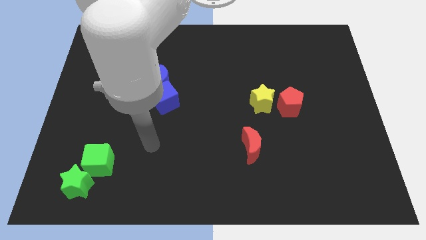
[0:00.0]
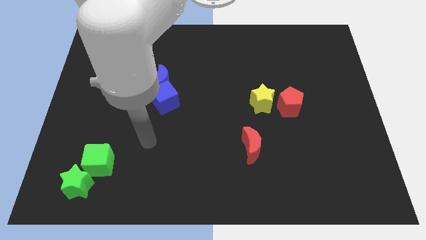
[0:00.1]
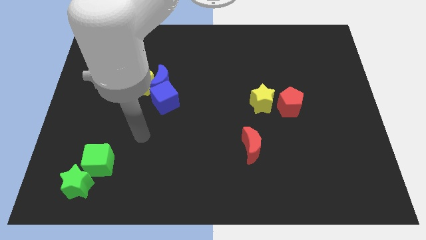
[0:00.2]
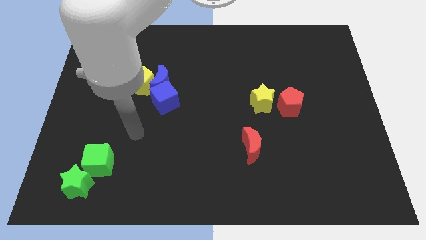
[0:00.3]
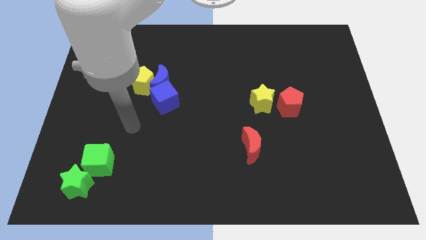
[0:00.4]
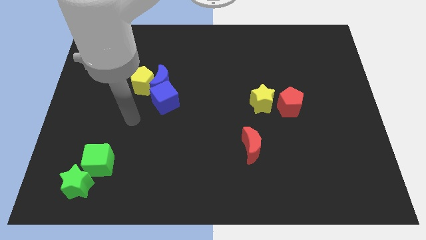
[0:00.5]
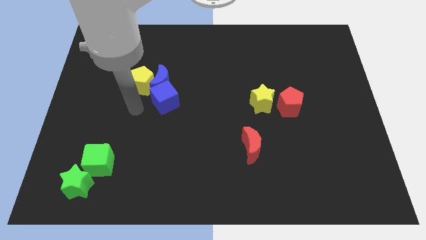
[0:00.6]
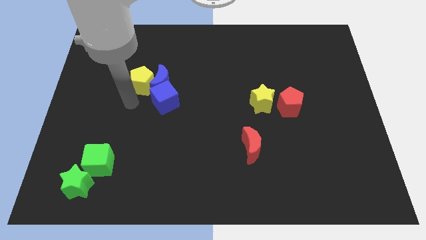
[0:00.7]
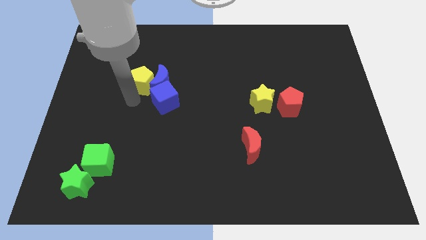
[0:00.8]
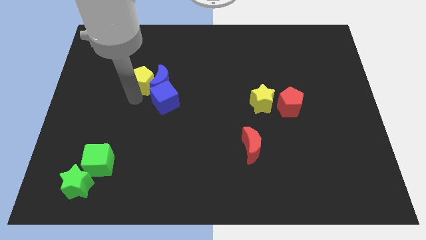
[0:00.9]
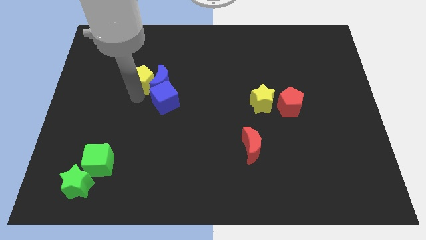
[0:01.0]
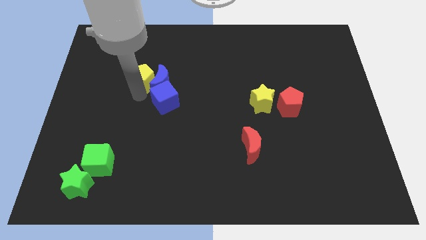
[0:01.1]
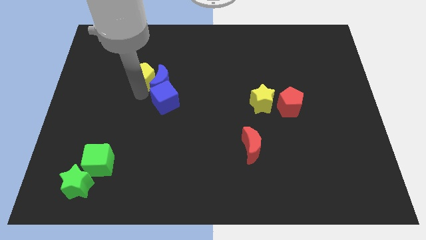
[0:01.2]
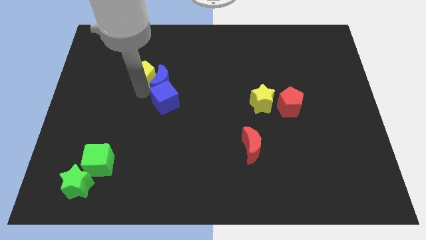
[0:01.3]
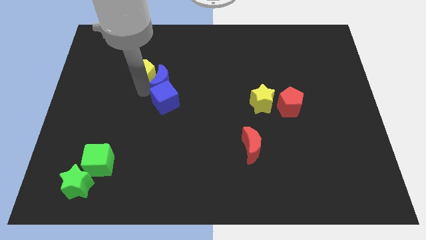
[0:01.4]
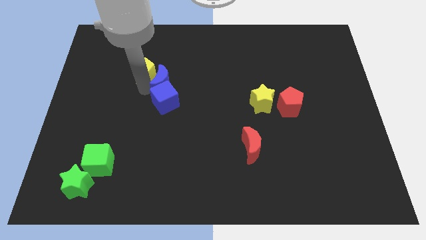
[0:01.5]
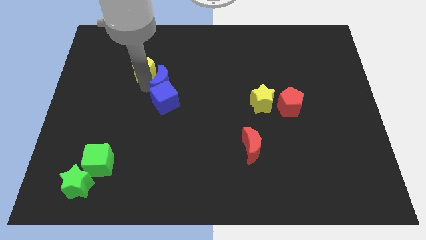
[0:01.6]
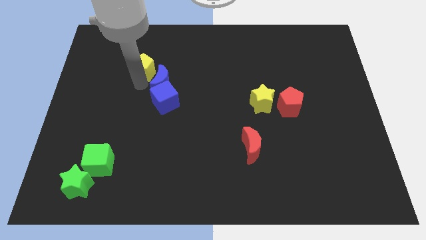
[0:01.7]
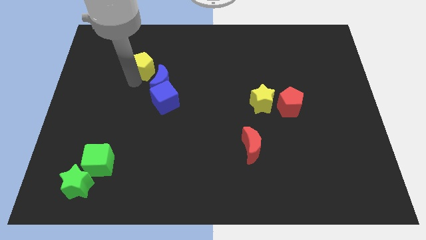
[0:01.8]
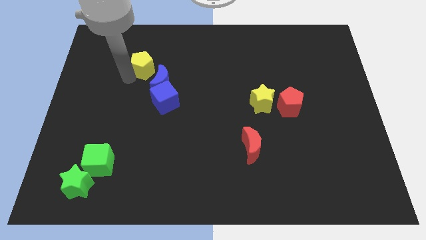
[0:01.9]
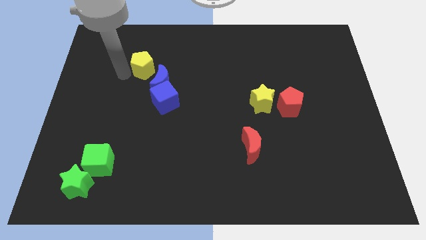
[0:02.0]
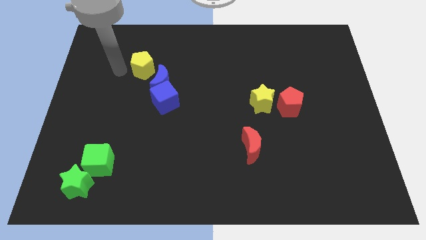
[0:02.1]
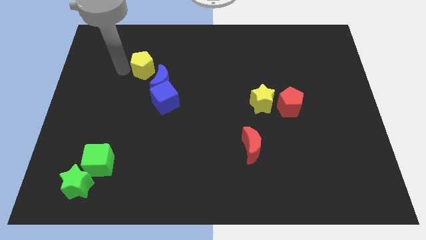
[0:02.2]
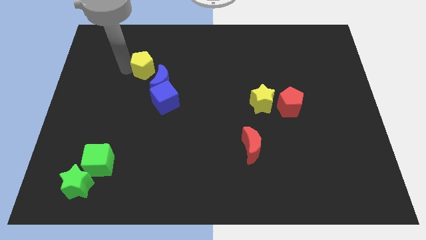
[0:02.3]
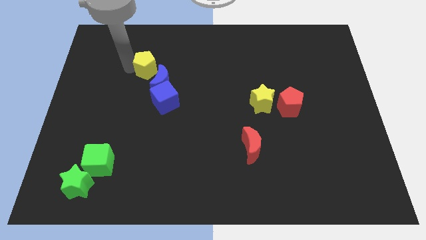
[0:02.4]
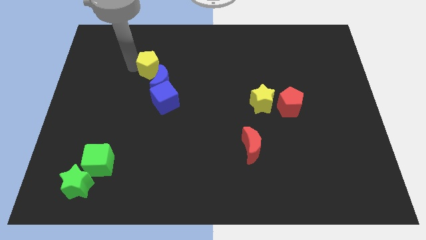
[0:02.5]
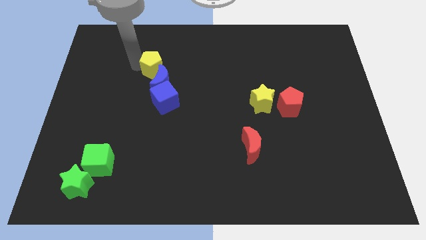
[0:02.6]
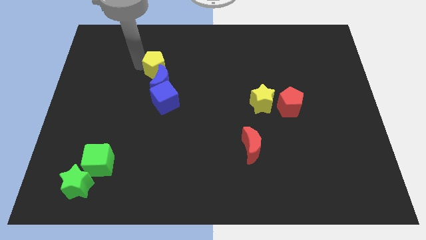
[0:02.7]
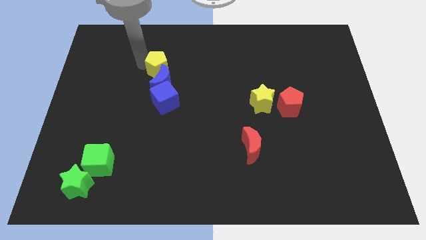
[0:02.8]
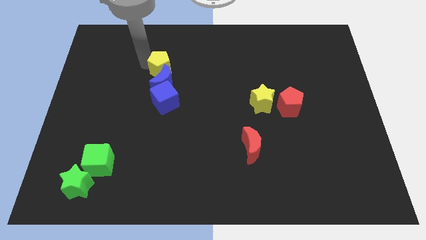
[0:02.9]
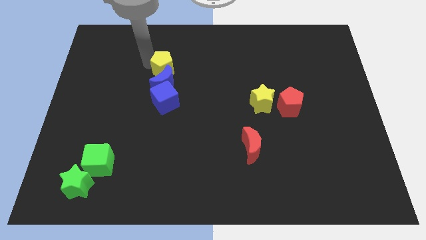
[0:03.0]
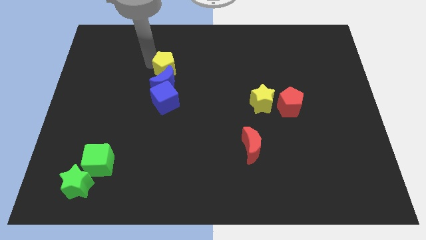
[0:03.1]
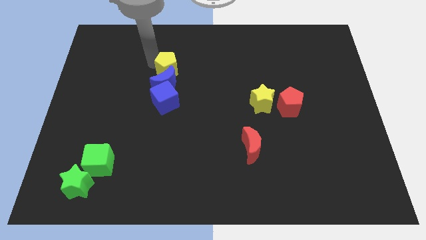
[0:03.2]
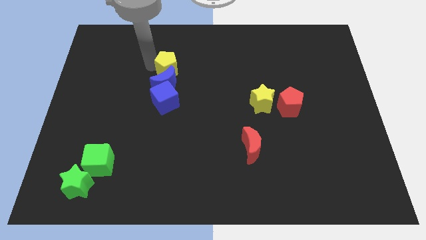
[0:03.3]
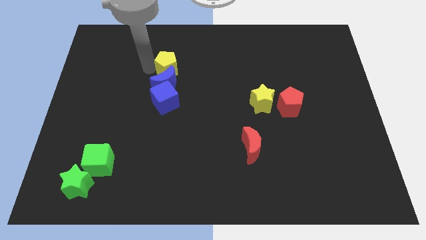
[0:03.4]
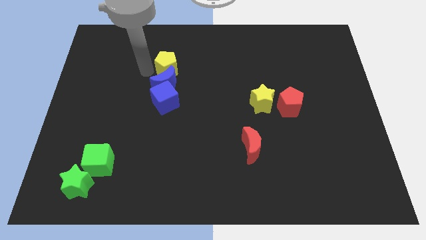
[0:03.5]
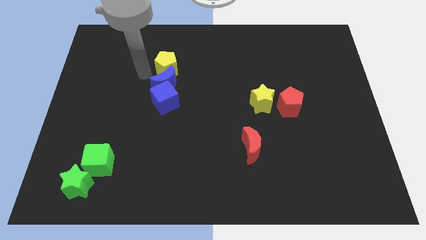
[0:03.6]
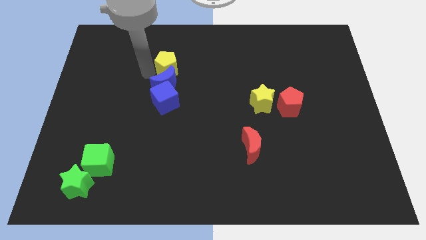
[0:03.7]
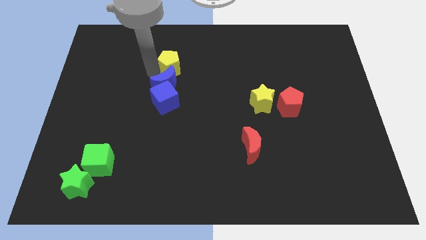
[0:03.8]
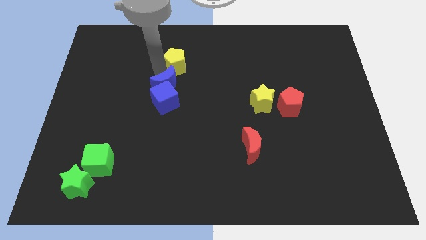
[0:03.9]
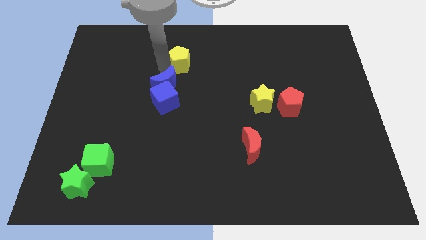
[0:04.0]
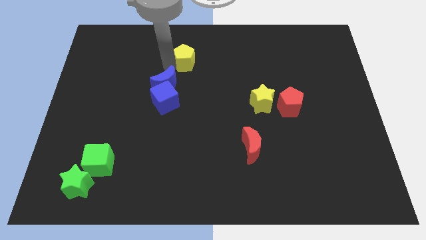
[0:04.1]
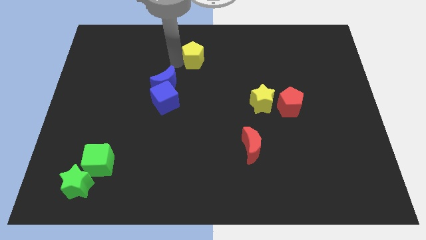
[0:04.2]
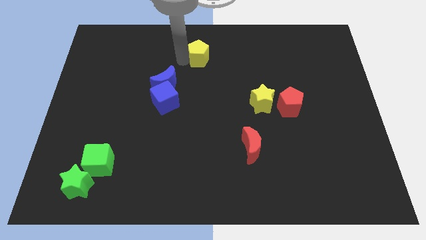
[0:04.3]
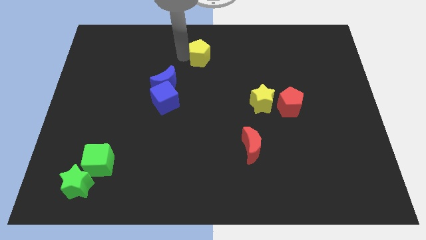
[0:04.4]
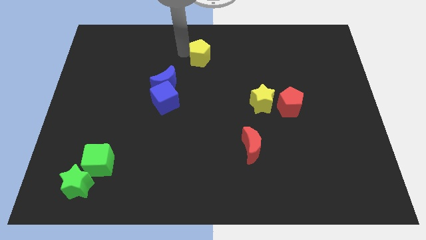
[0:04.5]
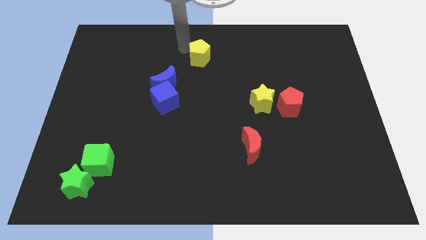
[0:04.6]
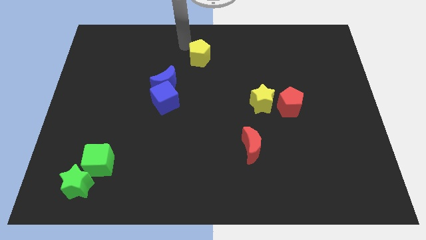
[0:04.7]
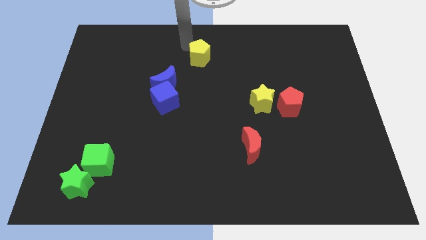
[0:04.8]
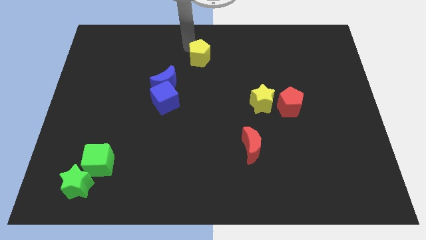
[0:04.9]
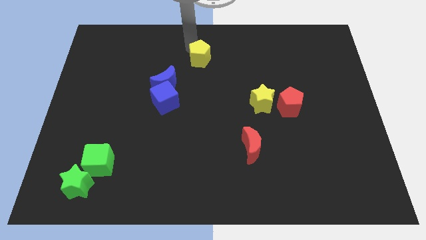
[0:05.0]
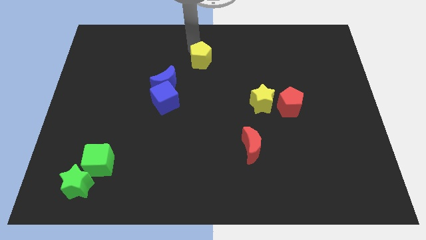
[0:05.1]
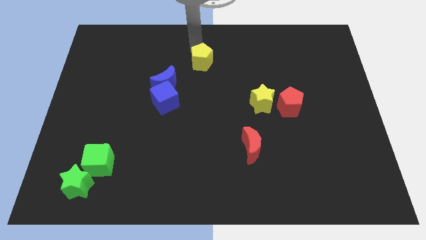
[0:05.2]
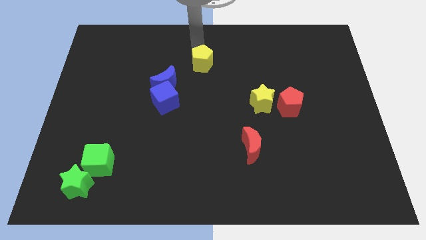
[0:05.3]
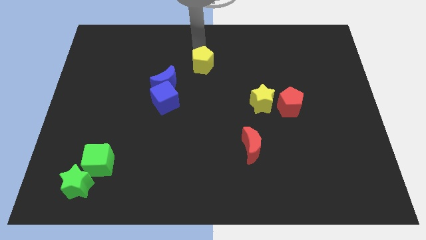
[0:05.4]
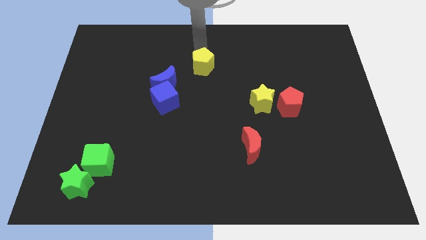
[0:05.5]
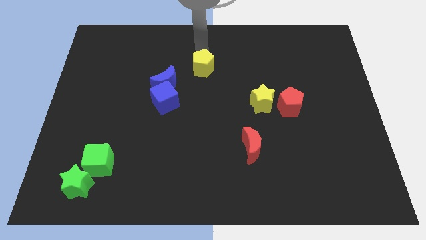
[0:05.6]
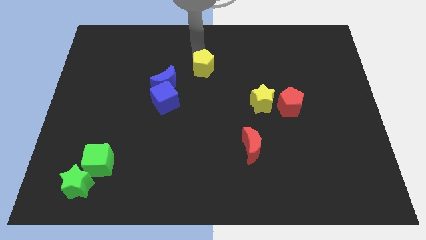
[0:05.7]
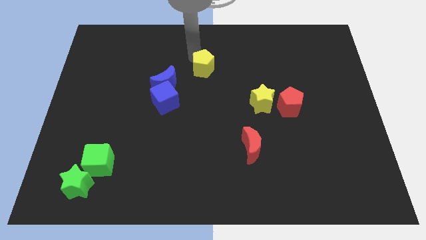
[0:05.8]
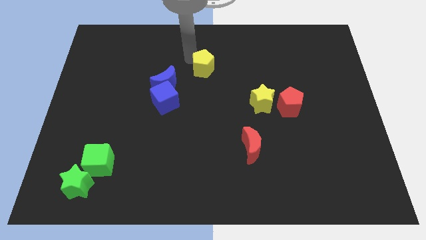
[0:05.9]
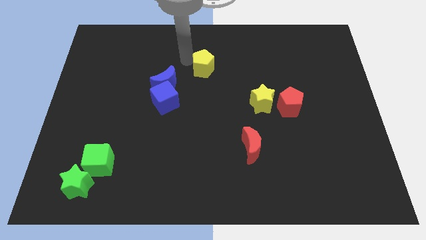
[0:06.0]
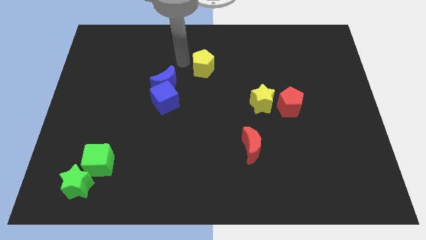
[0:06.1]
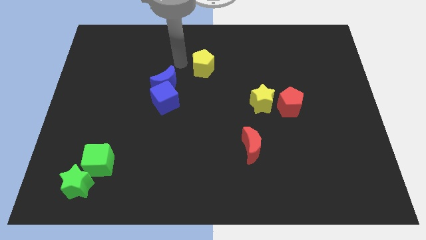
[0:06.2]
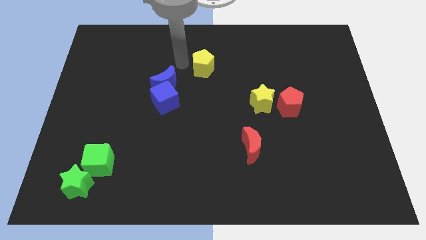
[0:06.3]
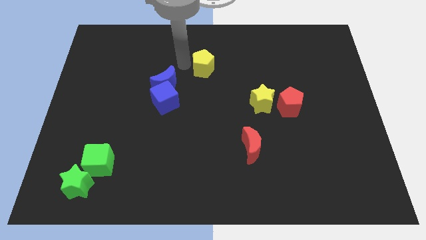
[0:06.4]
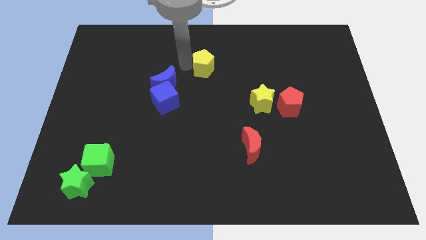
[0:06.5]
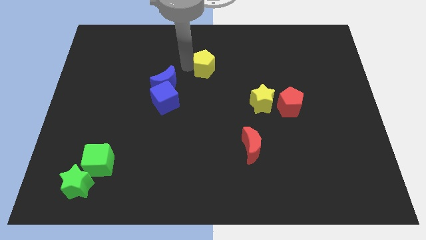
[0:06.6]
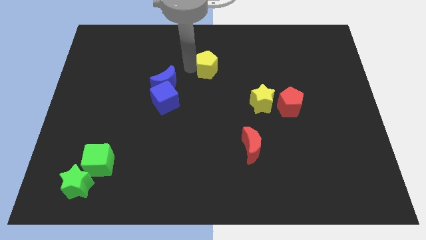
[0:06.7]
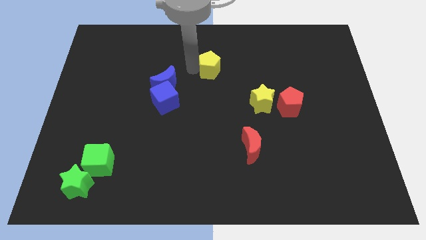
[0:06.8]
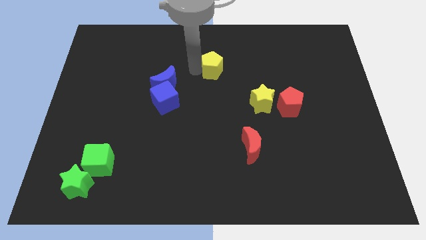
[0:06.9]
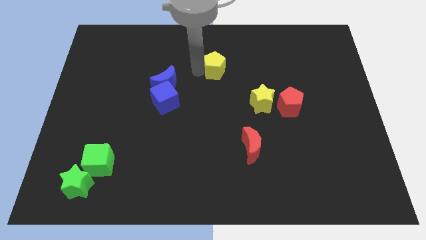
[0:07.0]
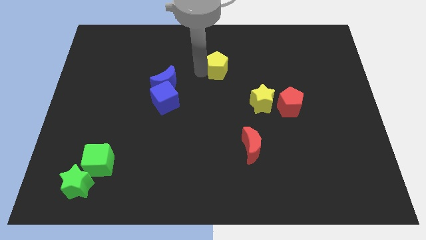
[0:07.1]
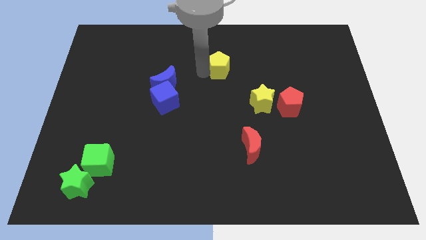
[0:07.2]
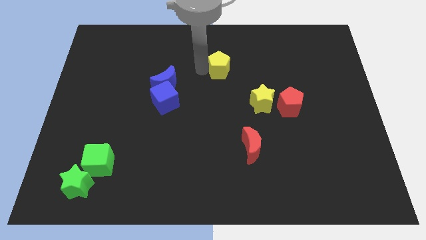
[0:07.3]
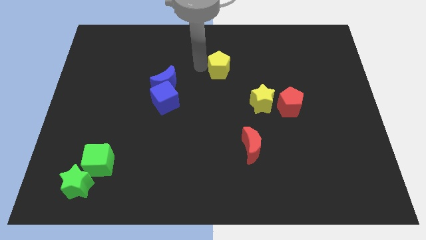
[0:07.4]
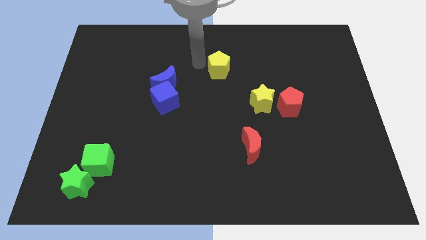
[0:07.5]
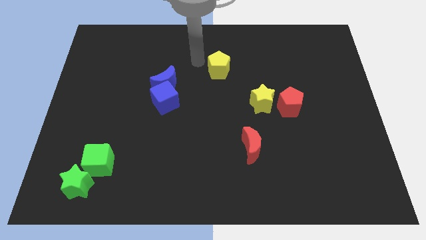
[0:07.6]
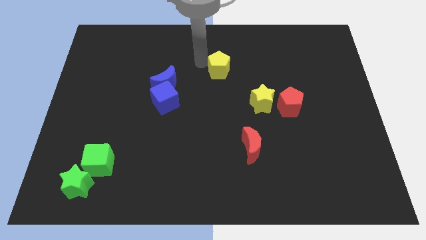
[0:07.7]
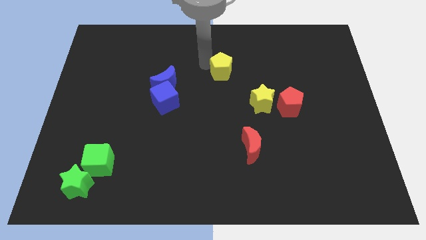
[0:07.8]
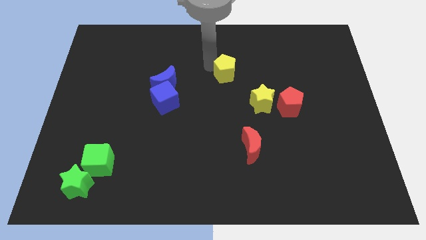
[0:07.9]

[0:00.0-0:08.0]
push the yellow pentagon right
